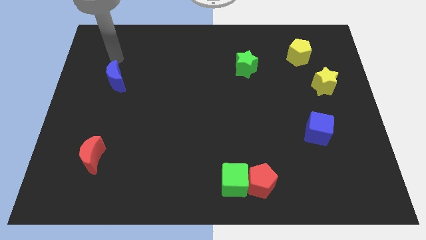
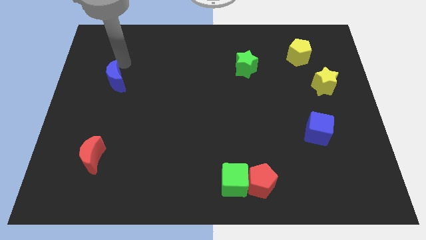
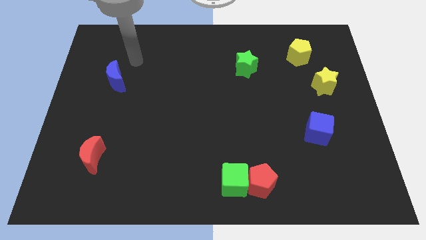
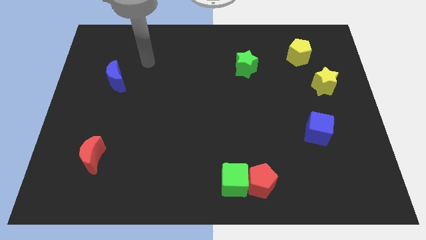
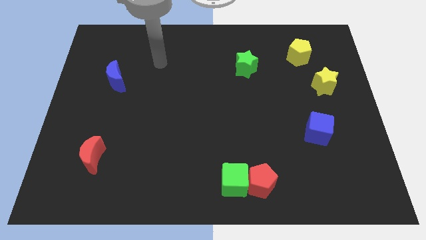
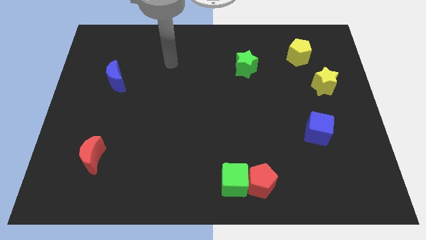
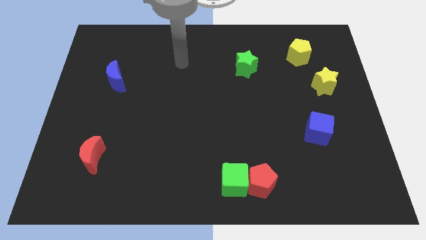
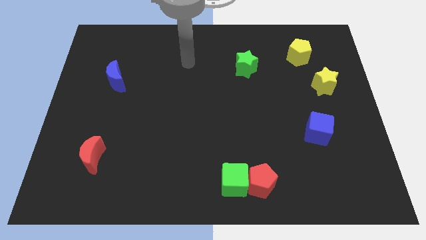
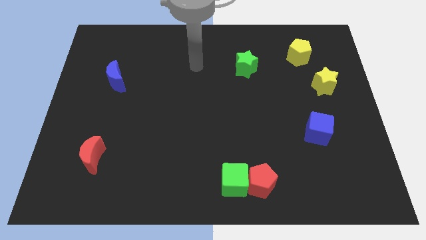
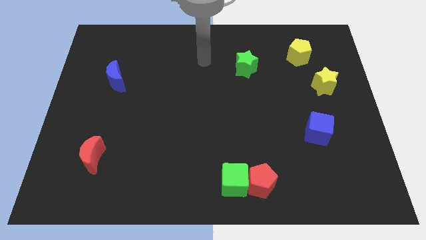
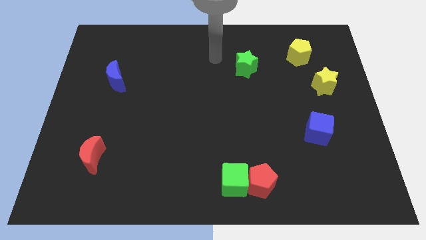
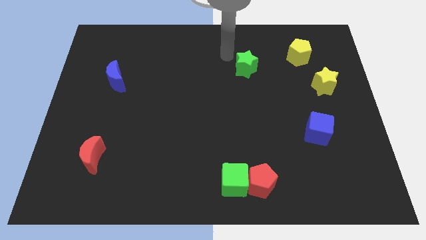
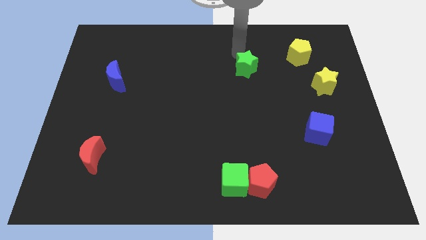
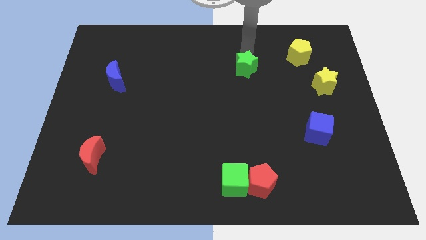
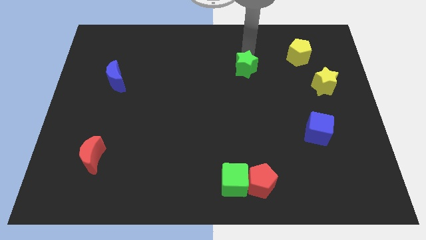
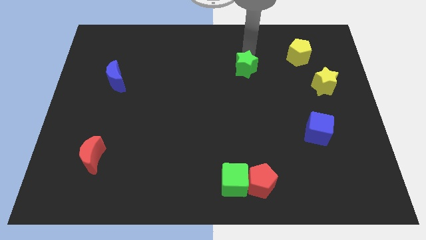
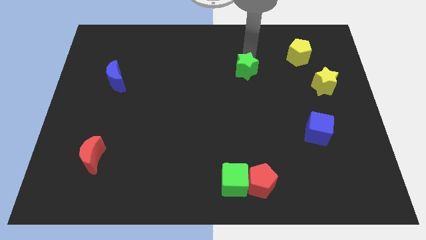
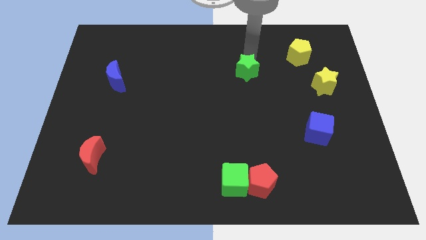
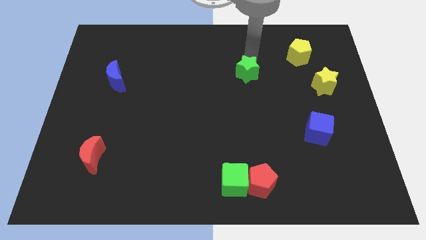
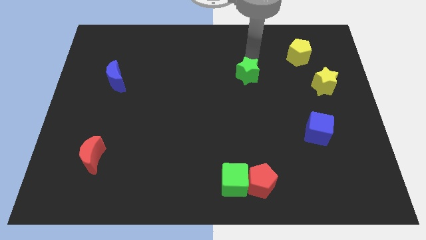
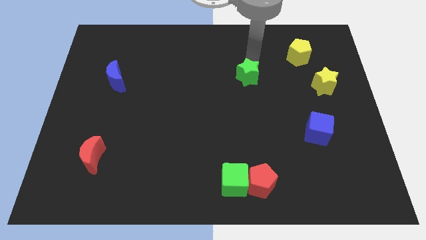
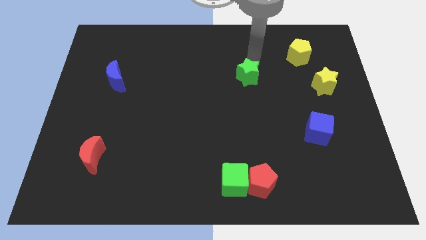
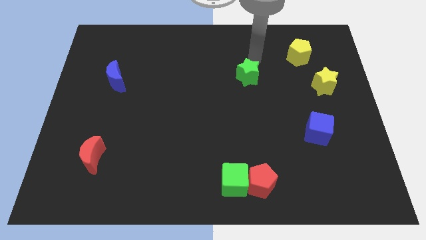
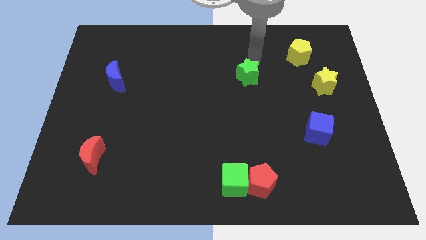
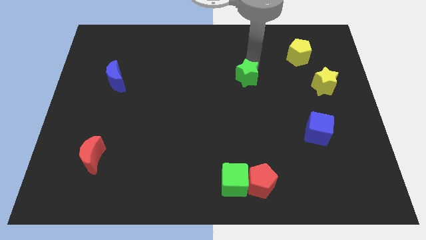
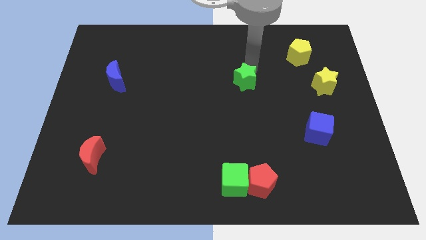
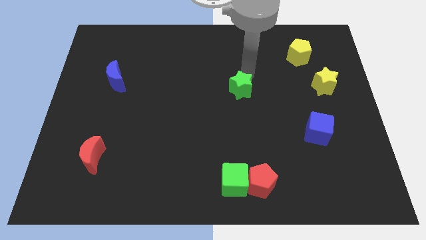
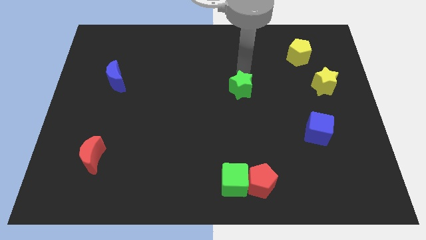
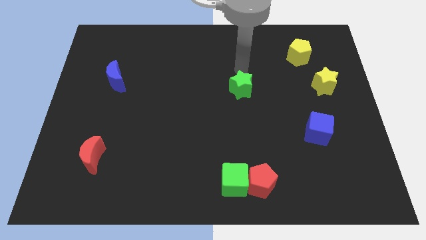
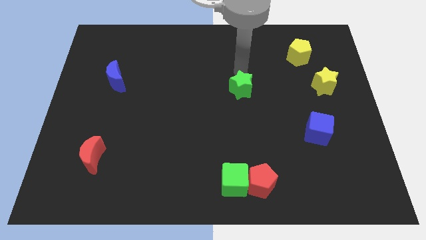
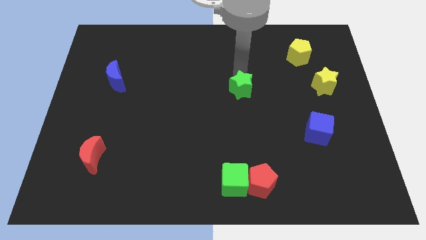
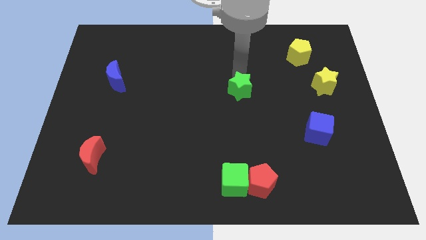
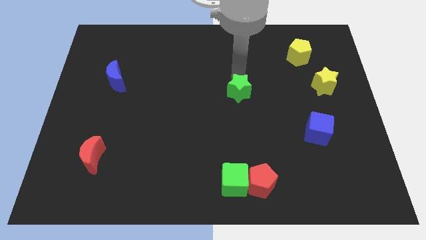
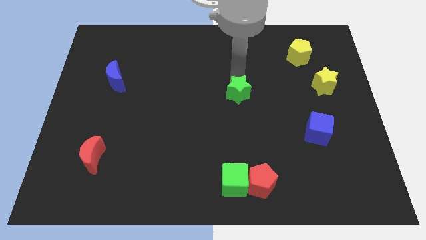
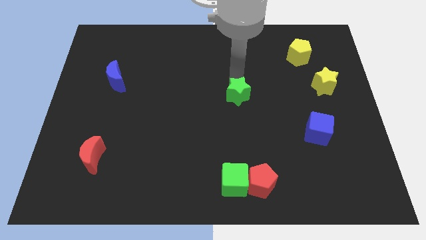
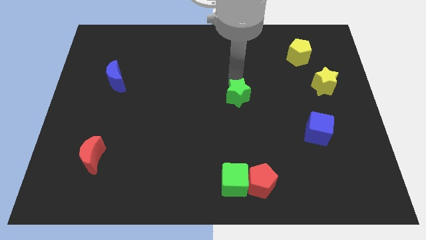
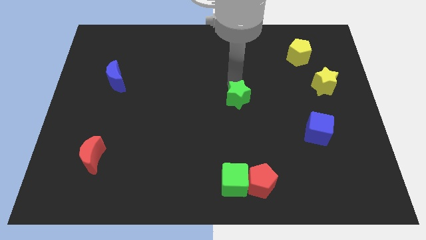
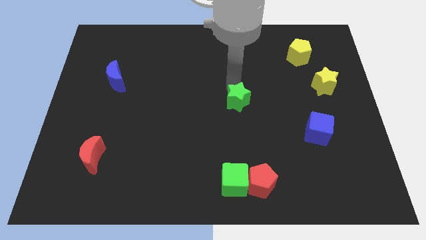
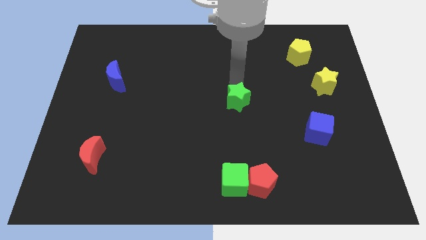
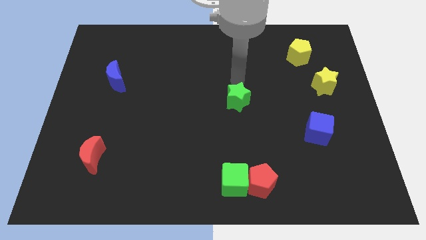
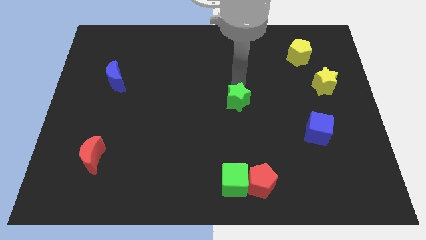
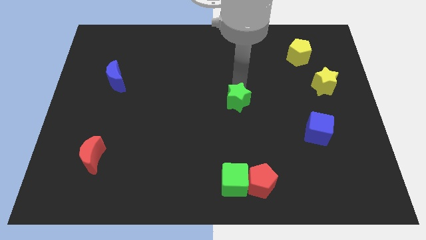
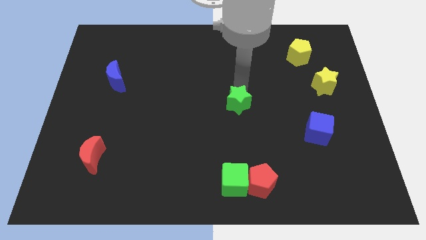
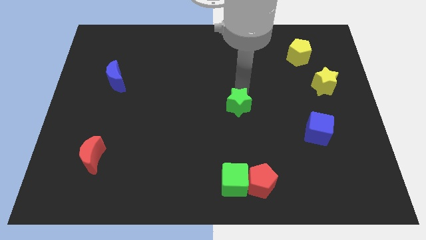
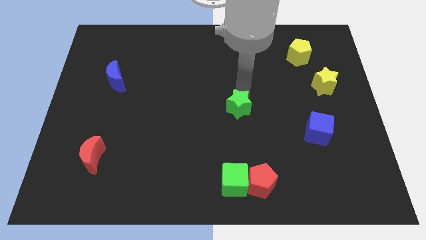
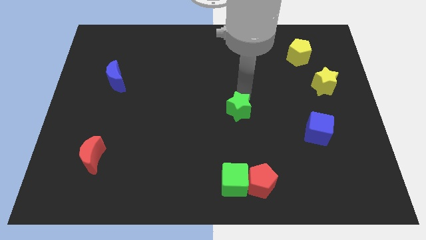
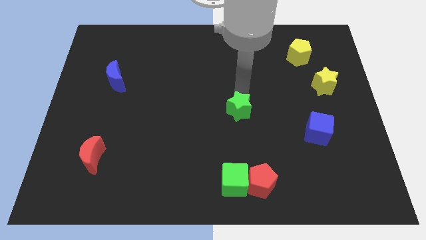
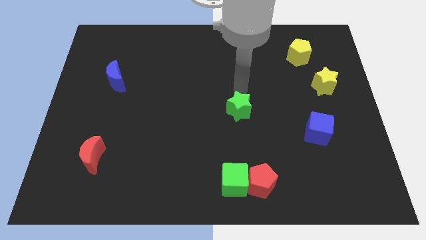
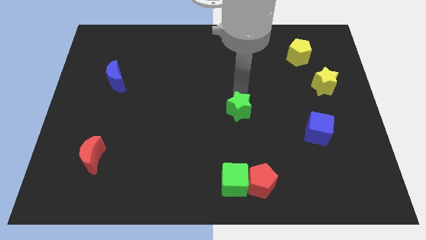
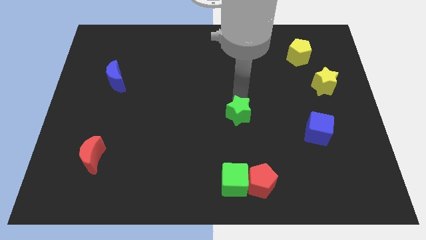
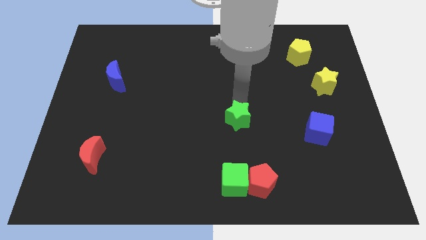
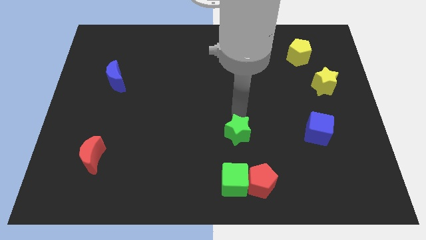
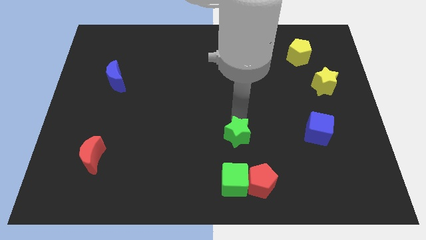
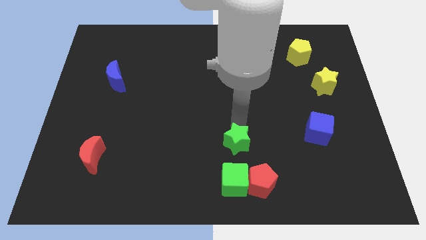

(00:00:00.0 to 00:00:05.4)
slide the green star to the top left side of the red pentagon
